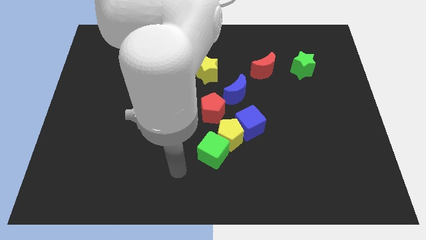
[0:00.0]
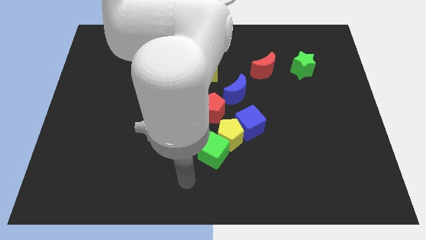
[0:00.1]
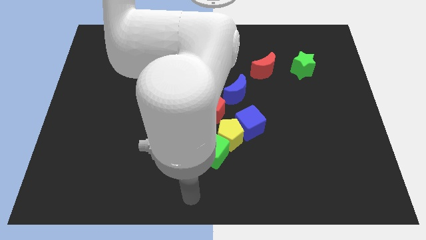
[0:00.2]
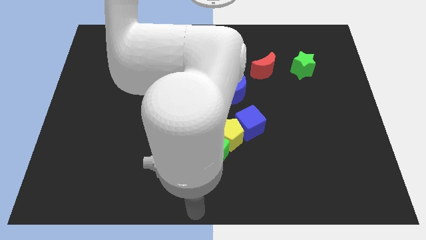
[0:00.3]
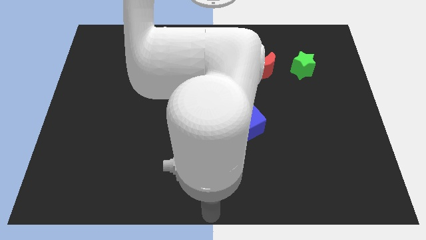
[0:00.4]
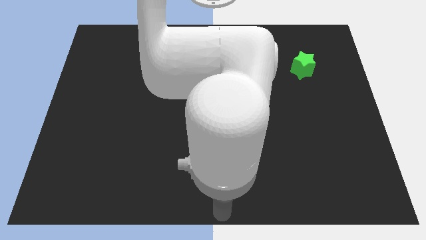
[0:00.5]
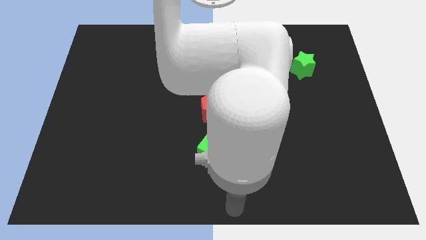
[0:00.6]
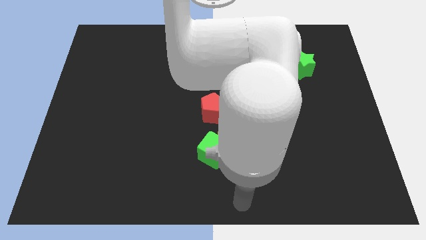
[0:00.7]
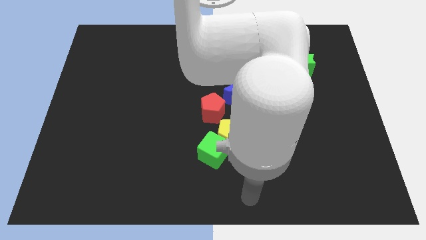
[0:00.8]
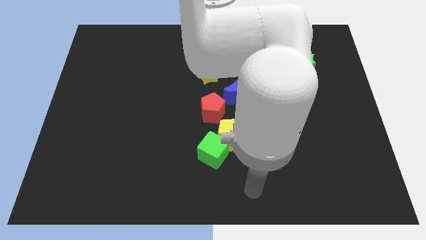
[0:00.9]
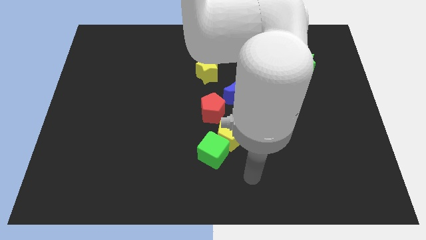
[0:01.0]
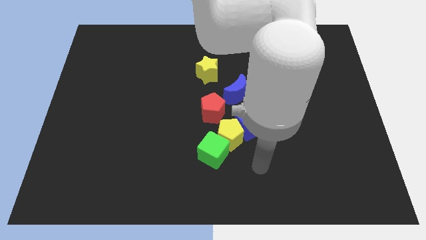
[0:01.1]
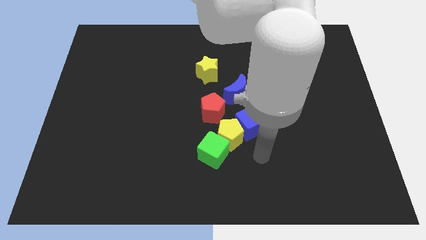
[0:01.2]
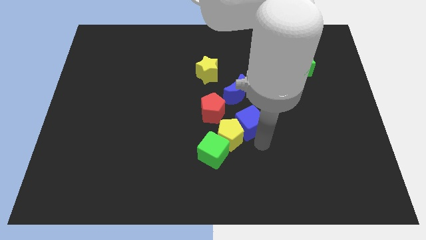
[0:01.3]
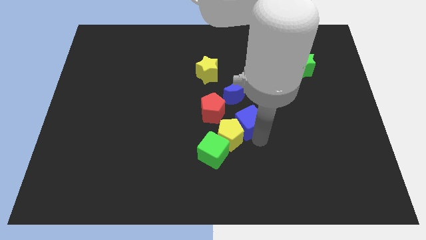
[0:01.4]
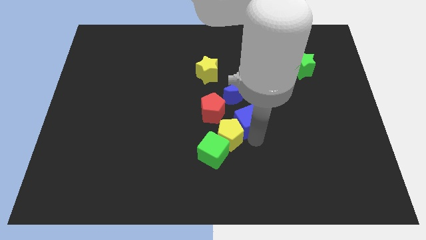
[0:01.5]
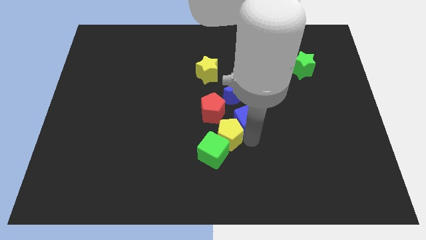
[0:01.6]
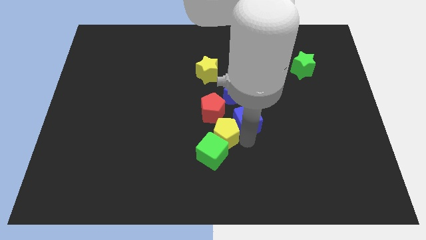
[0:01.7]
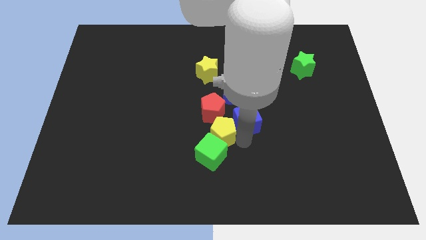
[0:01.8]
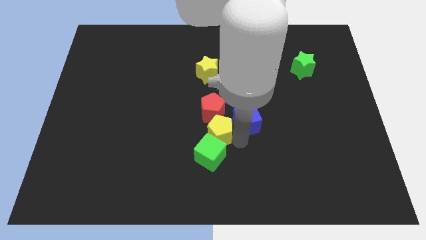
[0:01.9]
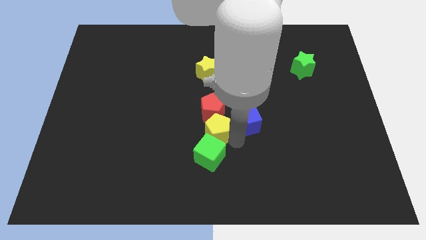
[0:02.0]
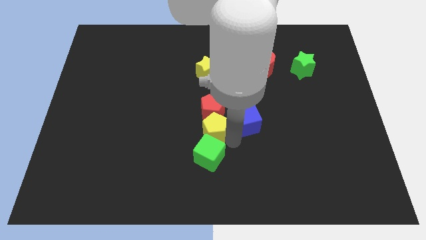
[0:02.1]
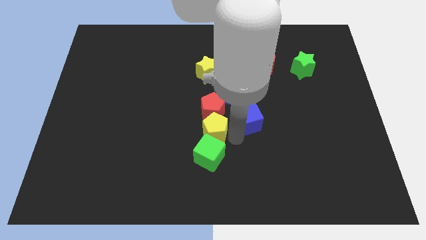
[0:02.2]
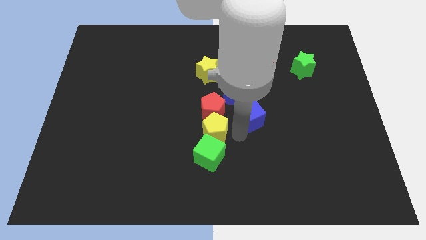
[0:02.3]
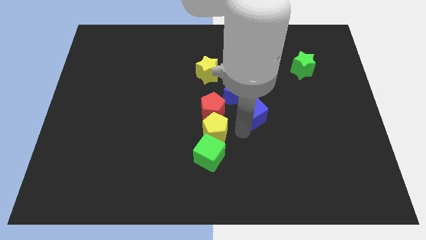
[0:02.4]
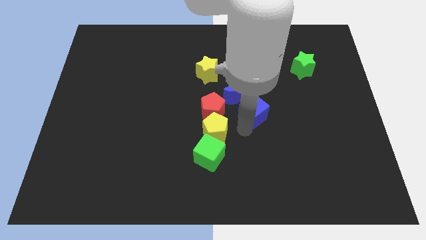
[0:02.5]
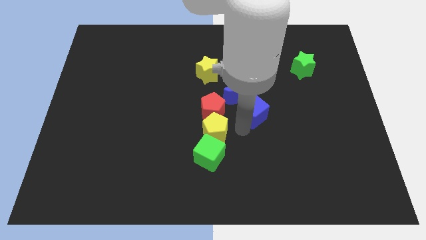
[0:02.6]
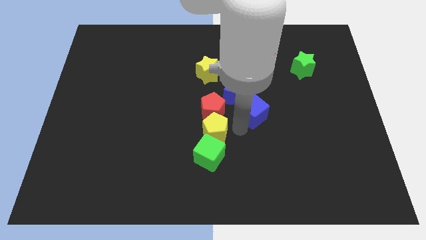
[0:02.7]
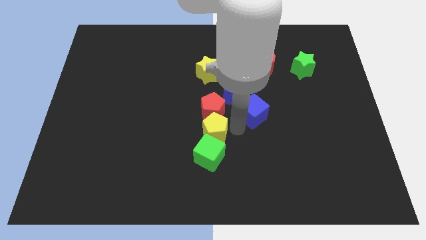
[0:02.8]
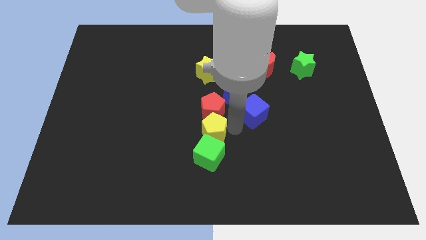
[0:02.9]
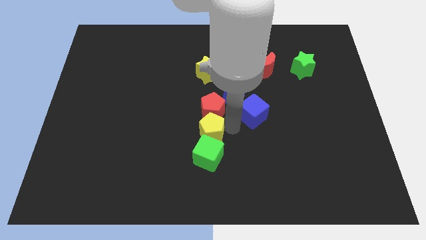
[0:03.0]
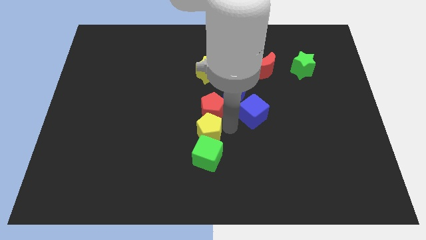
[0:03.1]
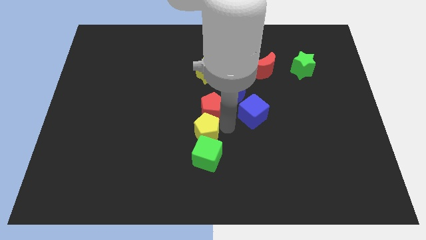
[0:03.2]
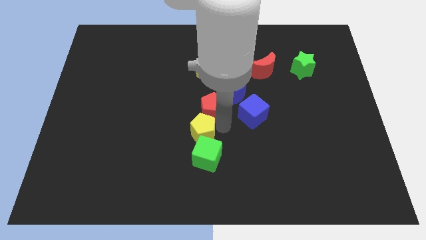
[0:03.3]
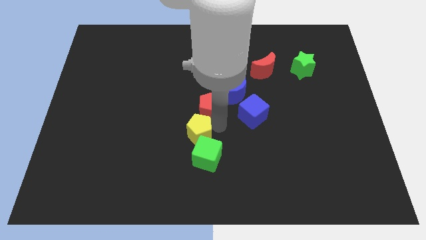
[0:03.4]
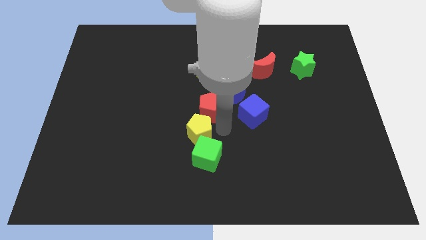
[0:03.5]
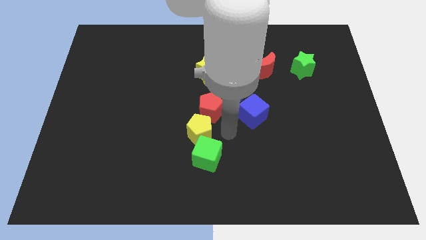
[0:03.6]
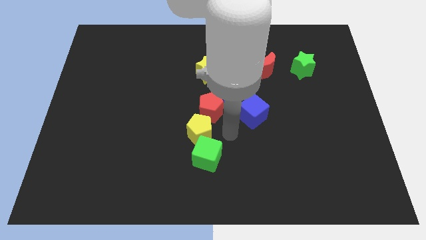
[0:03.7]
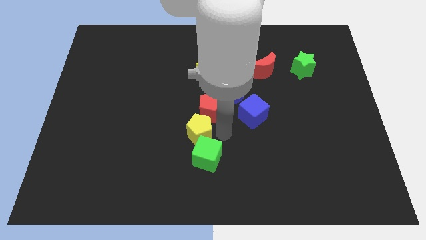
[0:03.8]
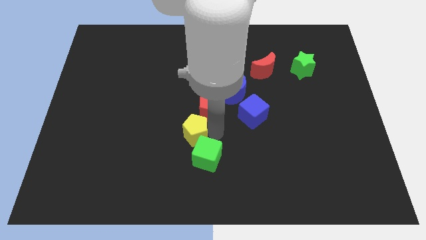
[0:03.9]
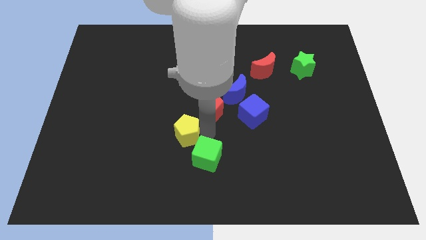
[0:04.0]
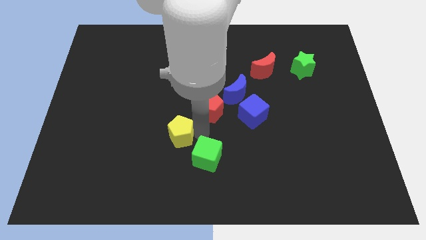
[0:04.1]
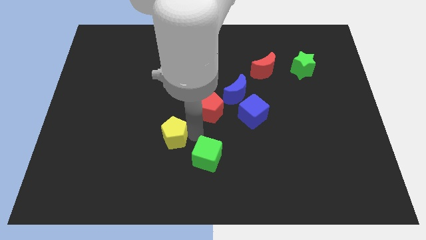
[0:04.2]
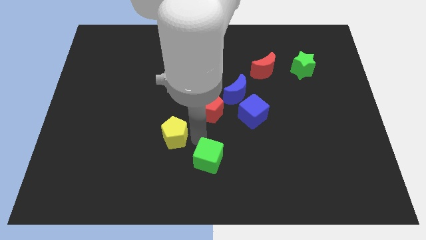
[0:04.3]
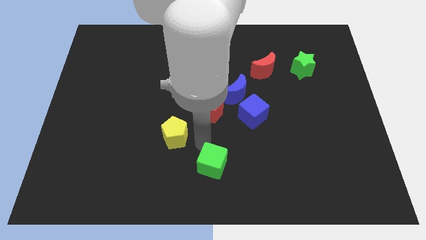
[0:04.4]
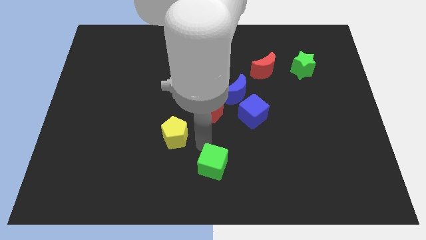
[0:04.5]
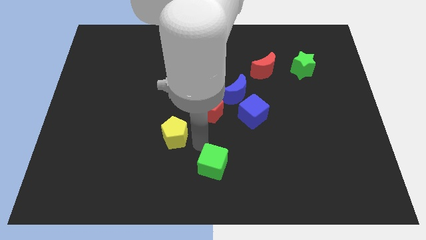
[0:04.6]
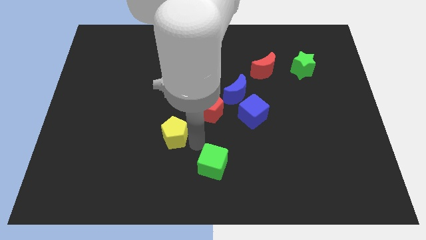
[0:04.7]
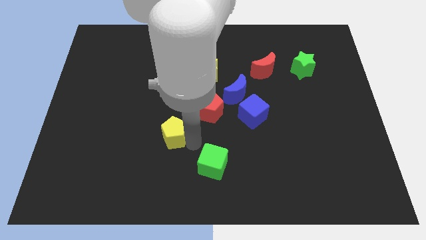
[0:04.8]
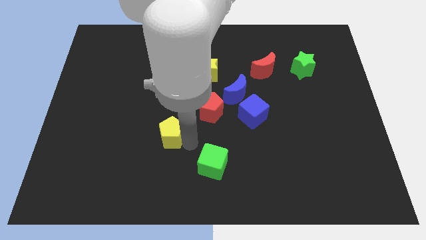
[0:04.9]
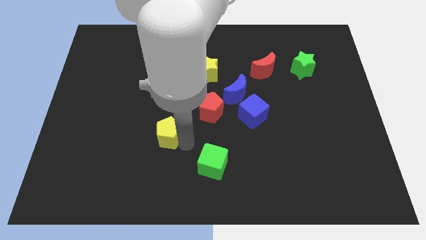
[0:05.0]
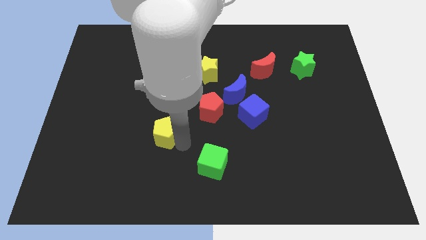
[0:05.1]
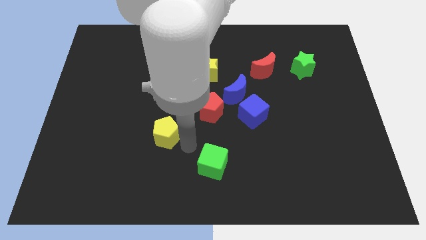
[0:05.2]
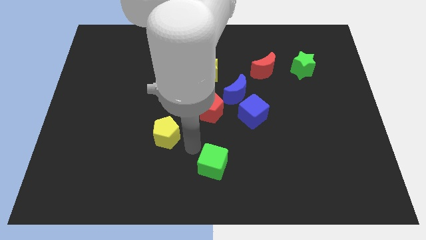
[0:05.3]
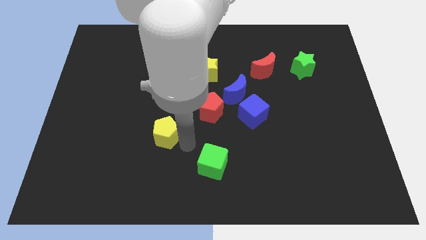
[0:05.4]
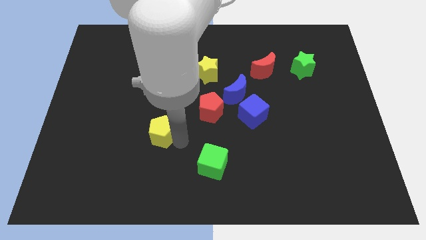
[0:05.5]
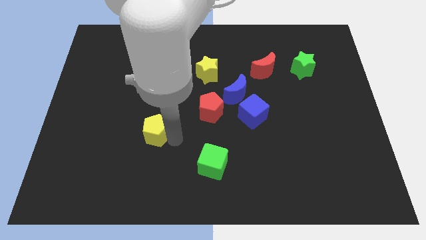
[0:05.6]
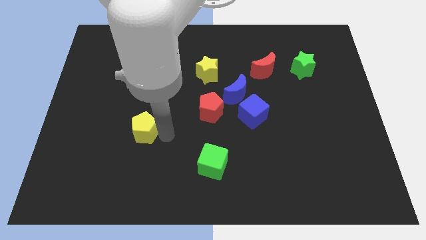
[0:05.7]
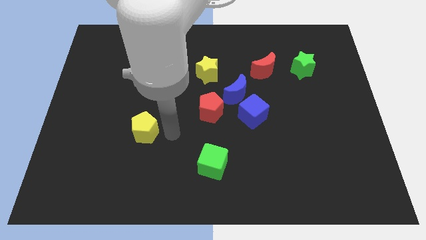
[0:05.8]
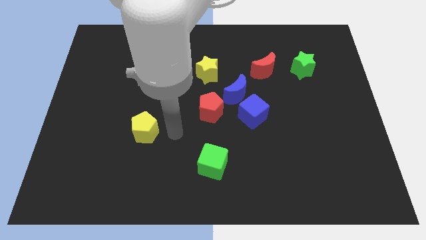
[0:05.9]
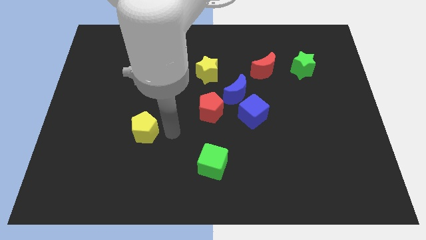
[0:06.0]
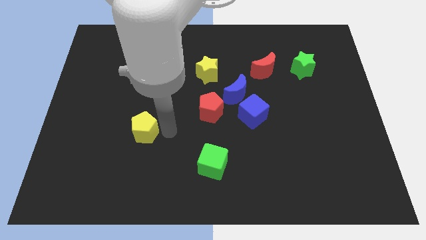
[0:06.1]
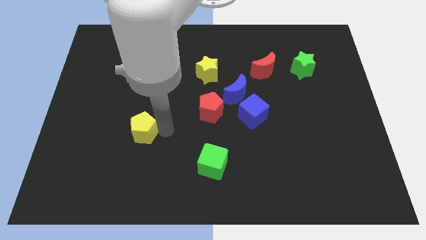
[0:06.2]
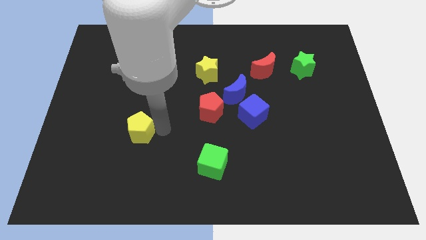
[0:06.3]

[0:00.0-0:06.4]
push the yellow pentagon to the left

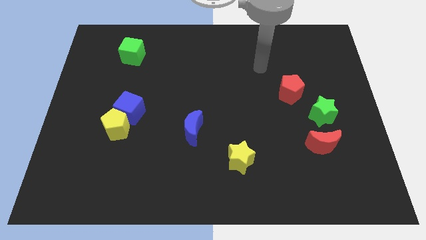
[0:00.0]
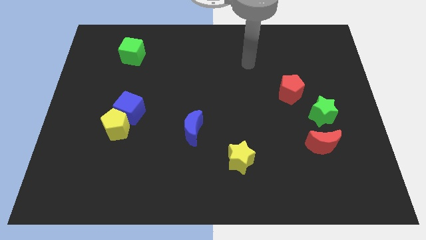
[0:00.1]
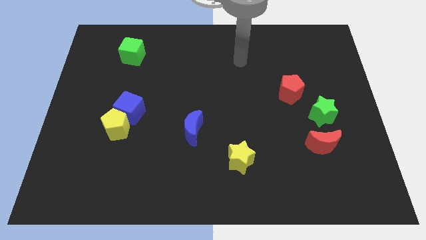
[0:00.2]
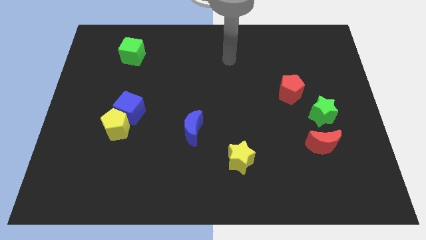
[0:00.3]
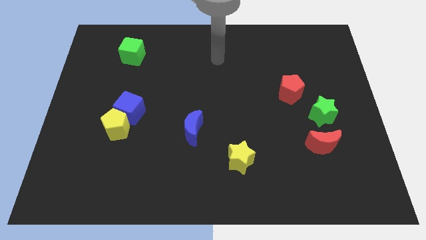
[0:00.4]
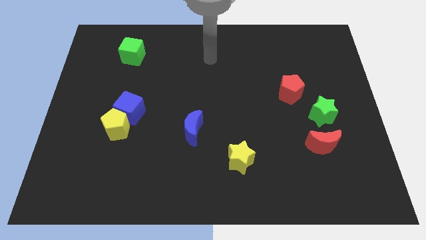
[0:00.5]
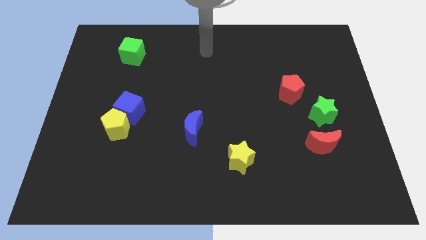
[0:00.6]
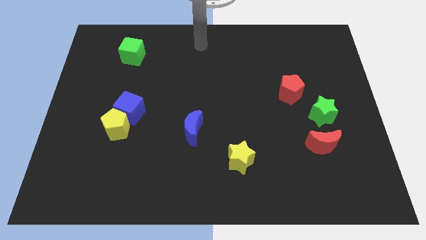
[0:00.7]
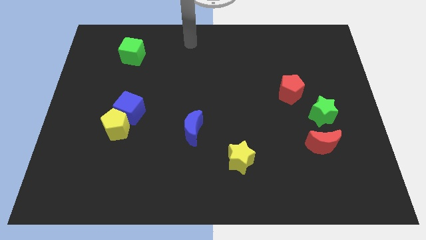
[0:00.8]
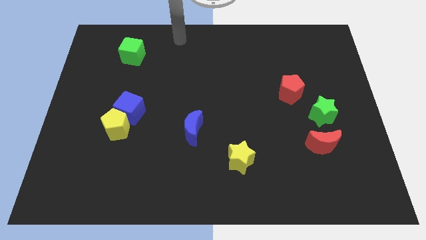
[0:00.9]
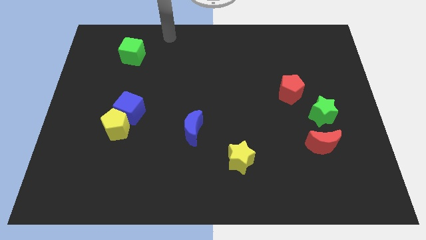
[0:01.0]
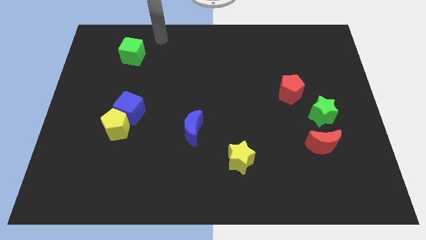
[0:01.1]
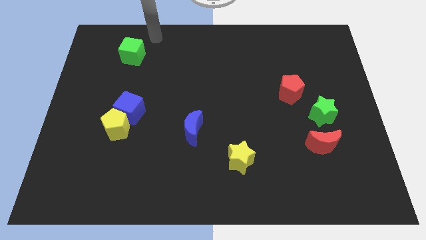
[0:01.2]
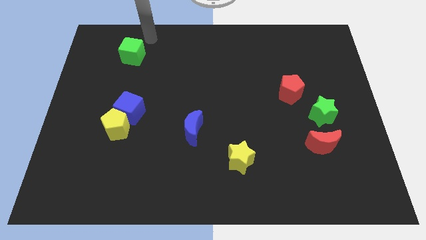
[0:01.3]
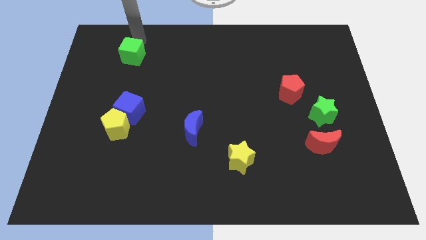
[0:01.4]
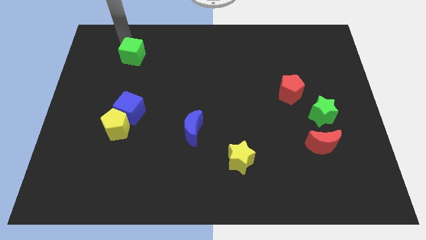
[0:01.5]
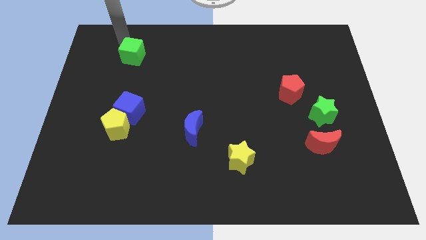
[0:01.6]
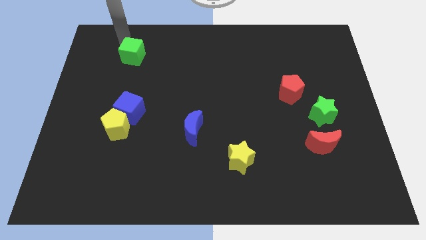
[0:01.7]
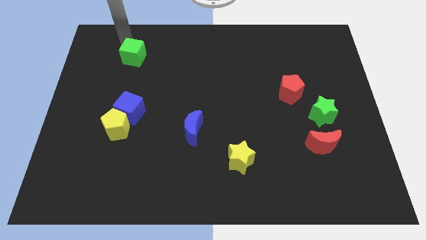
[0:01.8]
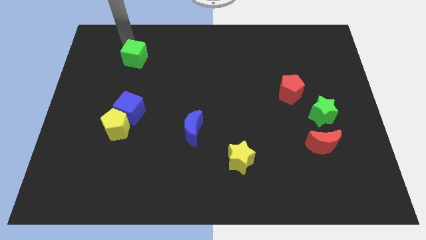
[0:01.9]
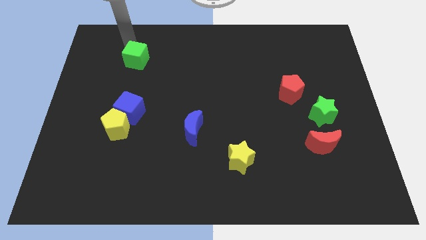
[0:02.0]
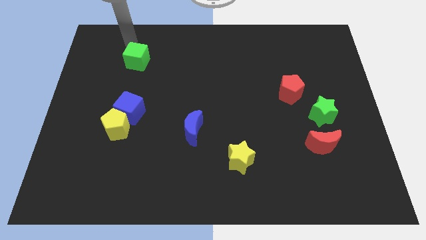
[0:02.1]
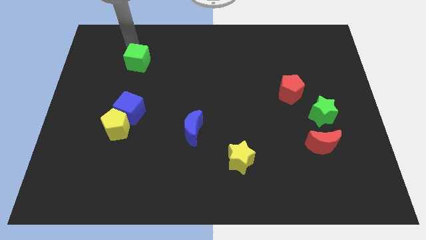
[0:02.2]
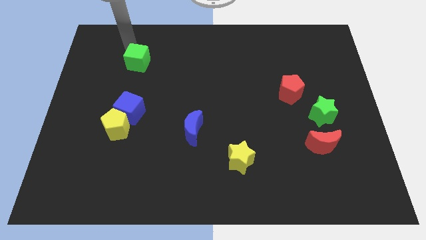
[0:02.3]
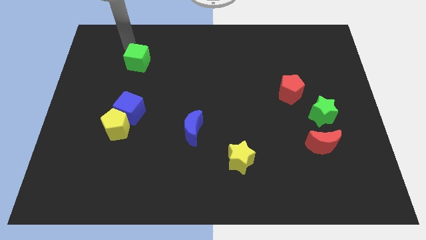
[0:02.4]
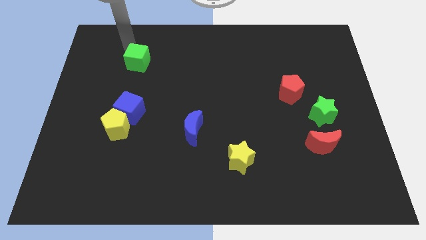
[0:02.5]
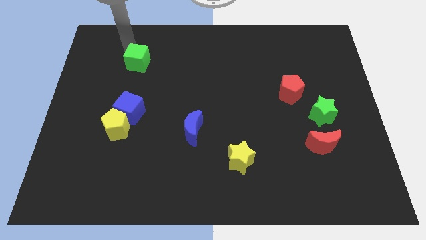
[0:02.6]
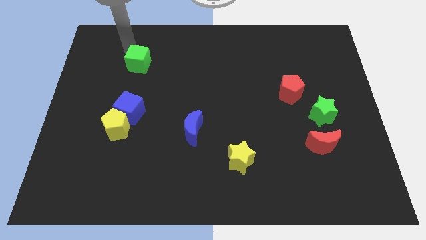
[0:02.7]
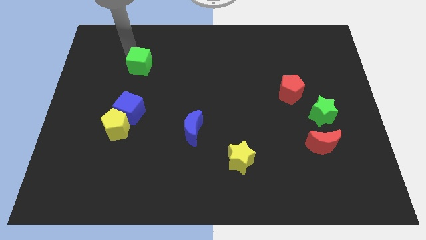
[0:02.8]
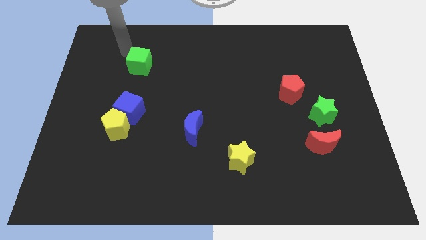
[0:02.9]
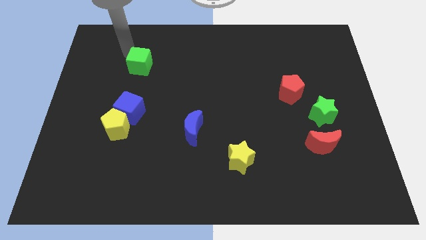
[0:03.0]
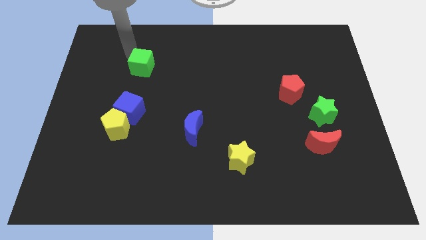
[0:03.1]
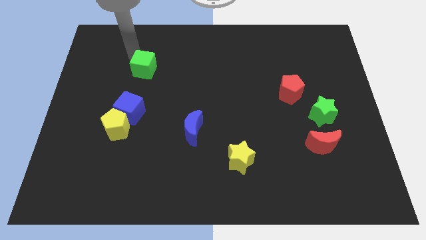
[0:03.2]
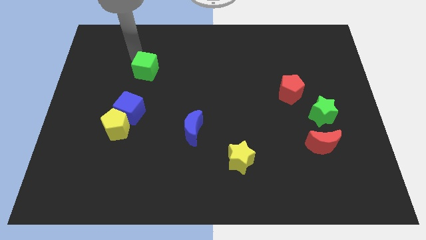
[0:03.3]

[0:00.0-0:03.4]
slightly move the green cube down and then right
